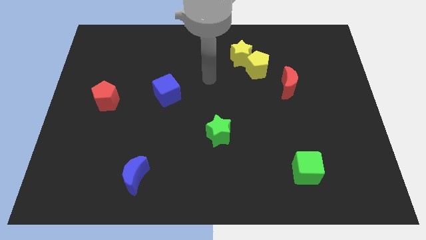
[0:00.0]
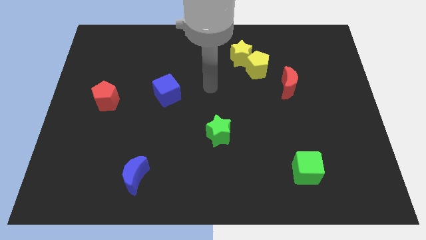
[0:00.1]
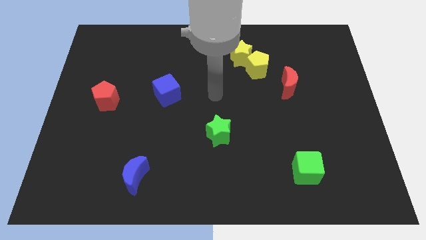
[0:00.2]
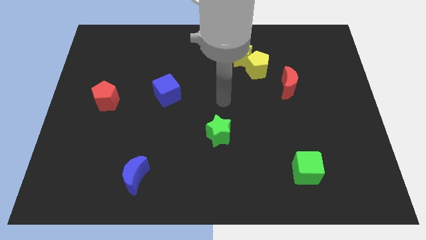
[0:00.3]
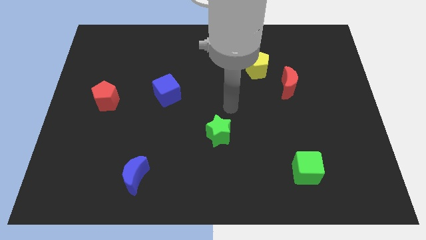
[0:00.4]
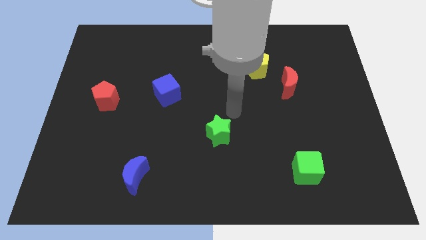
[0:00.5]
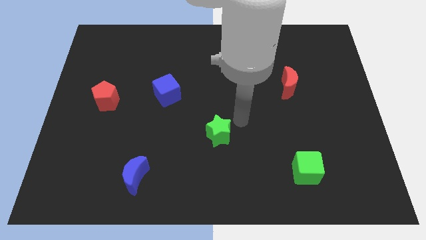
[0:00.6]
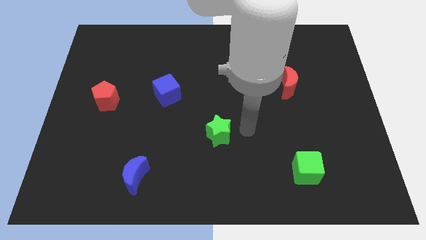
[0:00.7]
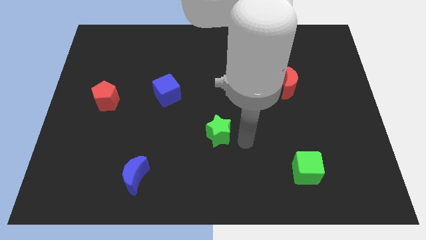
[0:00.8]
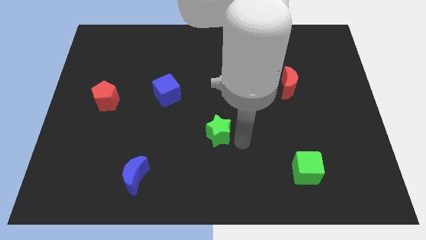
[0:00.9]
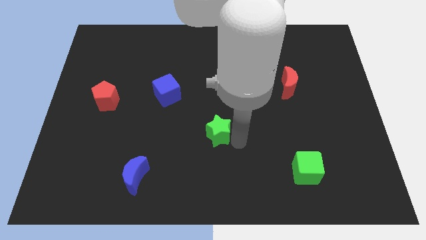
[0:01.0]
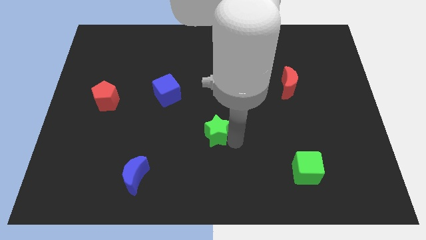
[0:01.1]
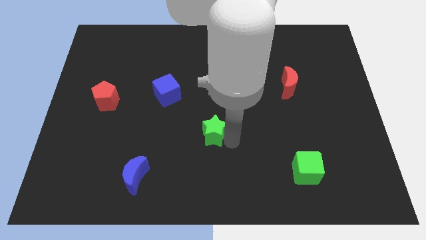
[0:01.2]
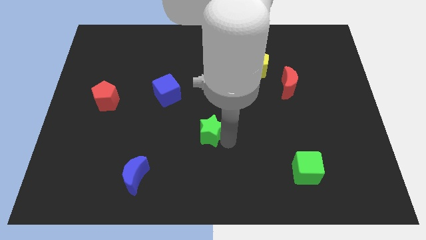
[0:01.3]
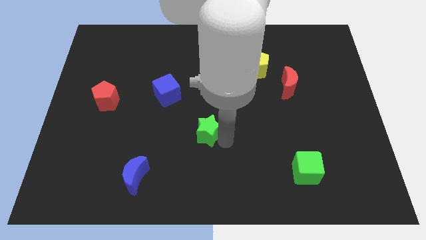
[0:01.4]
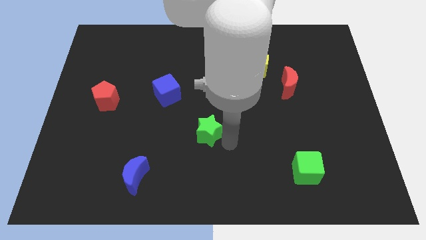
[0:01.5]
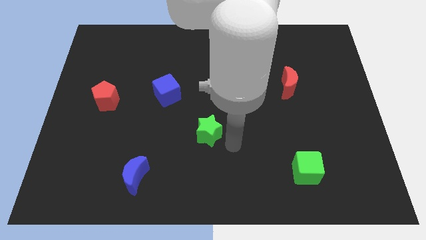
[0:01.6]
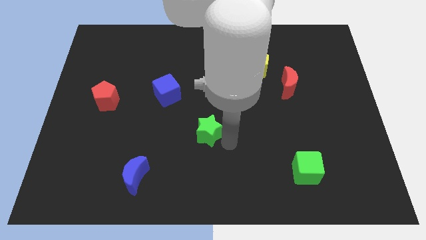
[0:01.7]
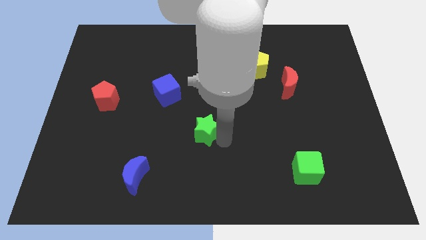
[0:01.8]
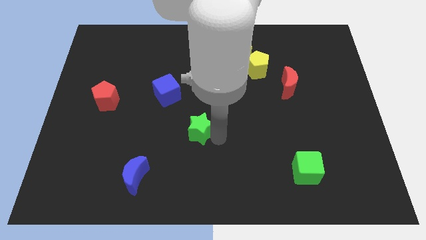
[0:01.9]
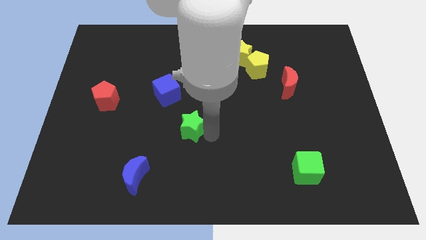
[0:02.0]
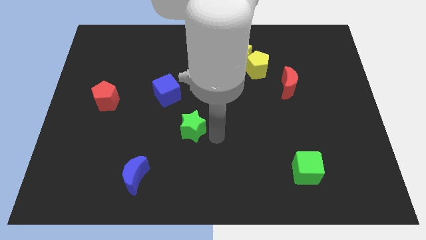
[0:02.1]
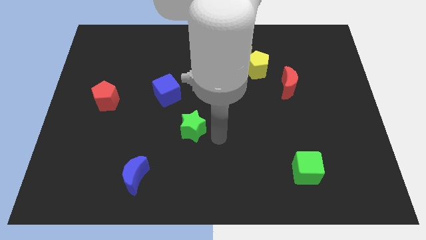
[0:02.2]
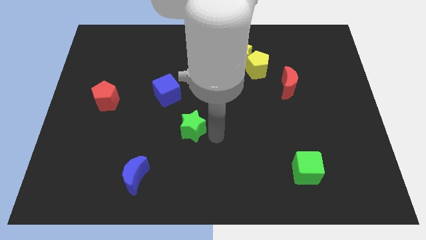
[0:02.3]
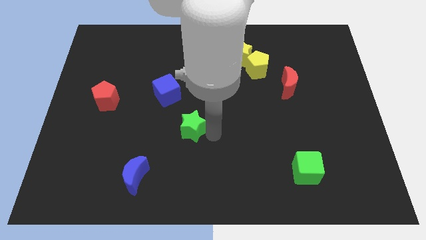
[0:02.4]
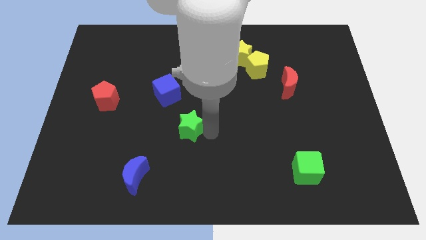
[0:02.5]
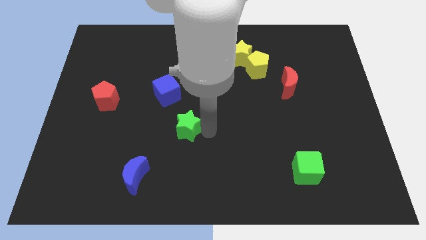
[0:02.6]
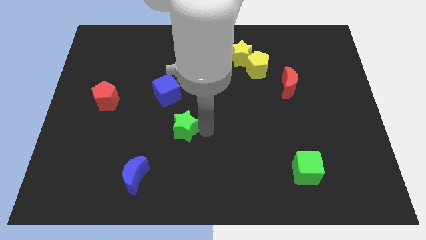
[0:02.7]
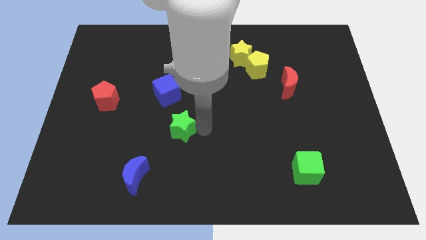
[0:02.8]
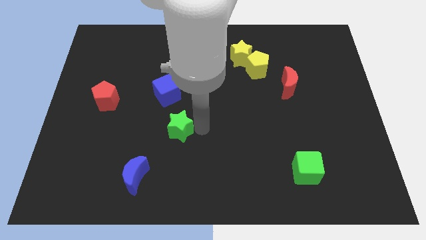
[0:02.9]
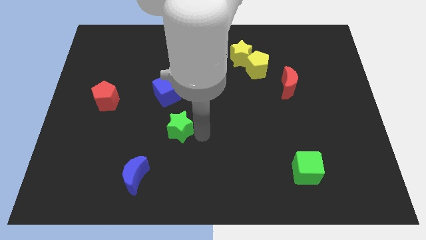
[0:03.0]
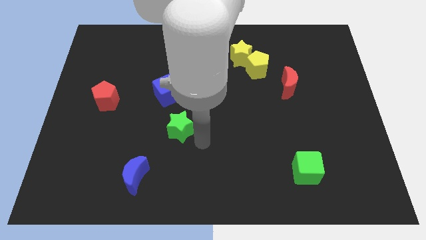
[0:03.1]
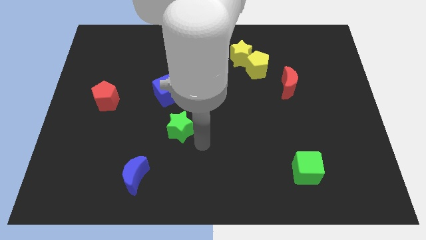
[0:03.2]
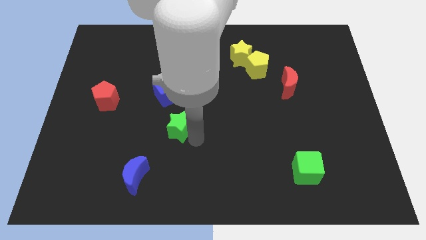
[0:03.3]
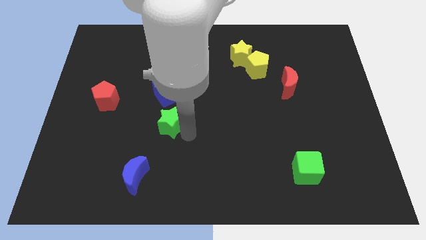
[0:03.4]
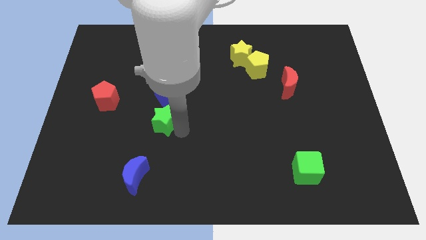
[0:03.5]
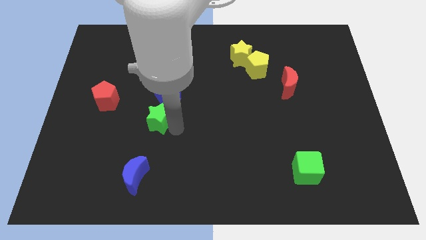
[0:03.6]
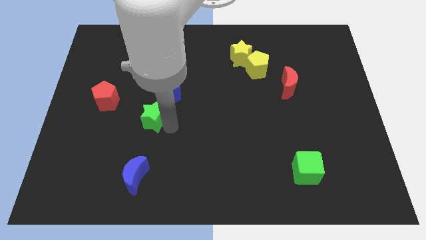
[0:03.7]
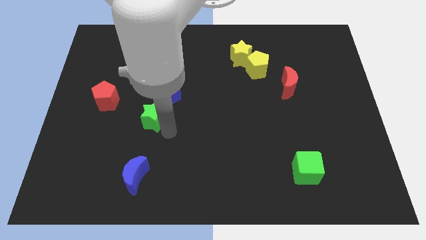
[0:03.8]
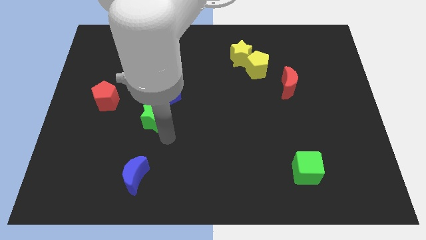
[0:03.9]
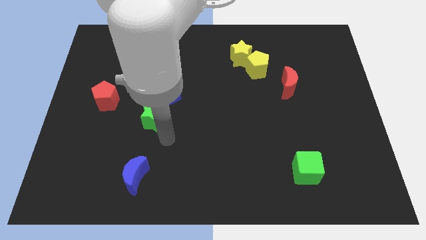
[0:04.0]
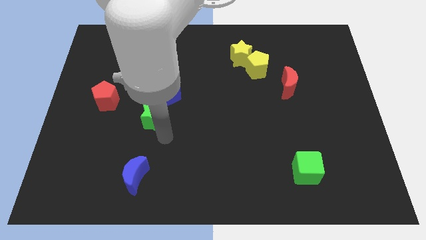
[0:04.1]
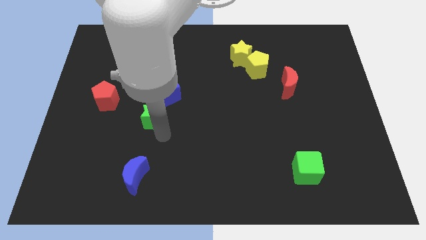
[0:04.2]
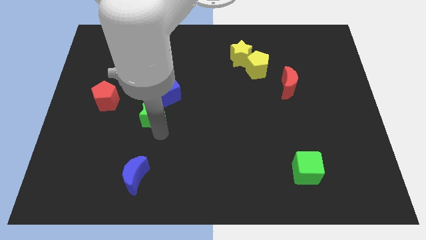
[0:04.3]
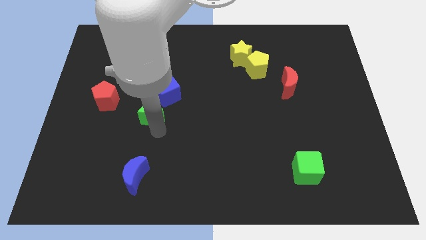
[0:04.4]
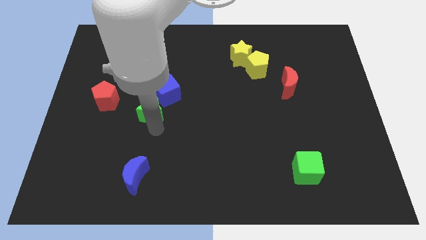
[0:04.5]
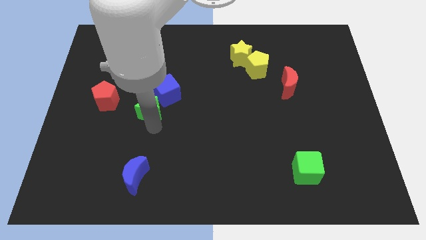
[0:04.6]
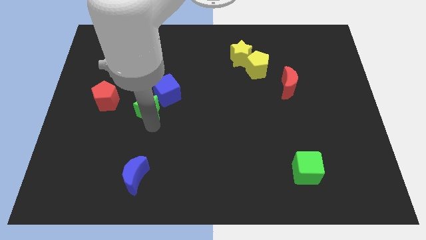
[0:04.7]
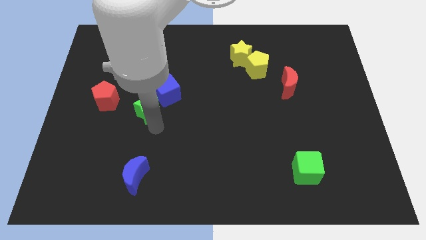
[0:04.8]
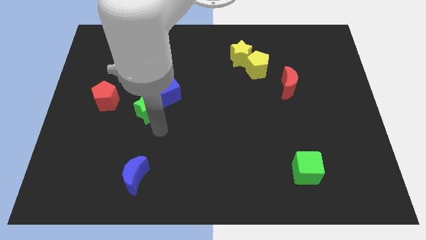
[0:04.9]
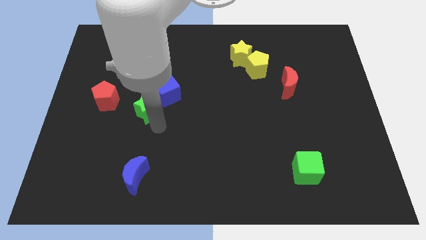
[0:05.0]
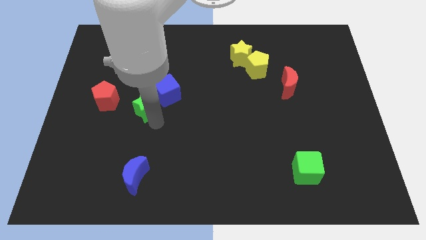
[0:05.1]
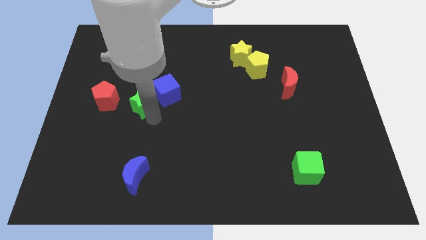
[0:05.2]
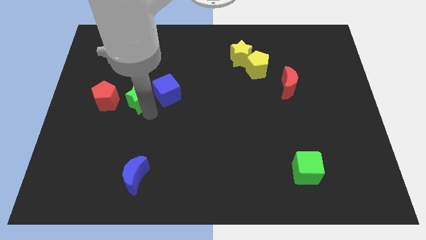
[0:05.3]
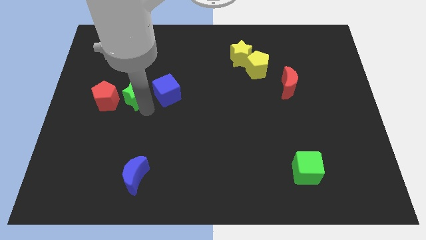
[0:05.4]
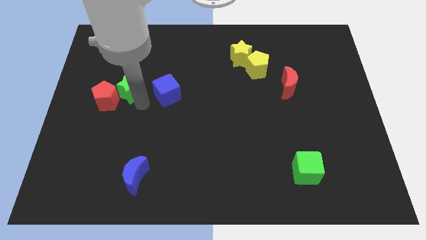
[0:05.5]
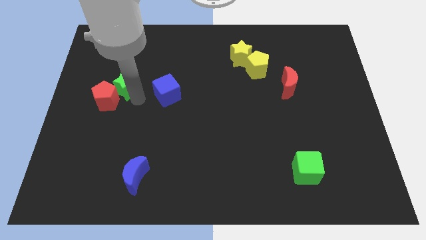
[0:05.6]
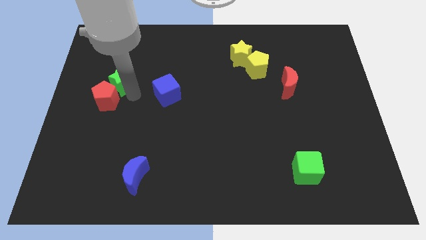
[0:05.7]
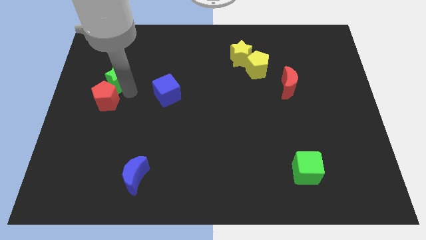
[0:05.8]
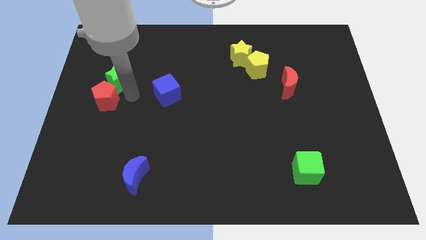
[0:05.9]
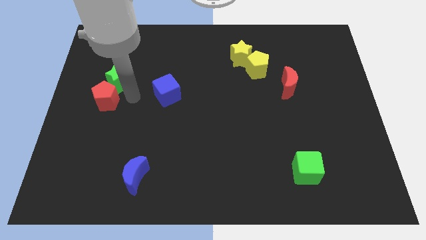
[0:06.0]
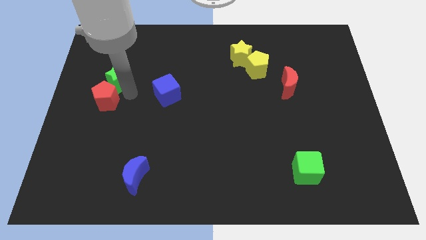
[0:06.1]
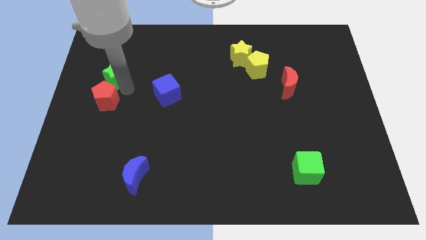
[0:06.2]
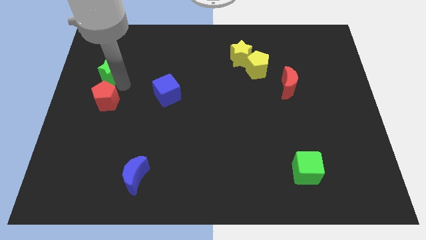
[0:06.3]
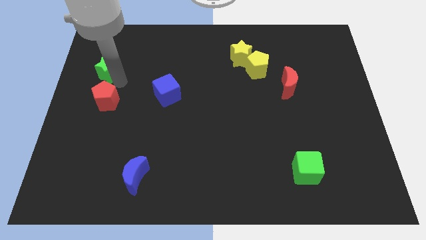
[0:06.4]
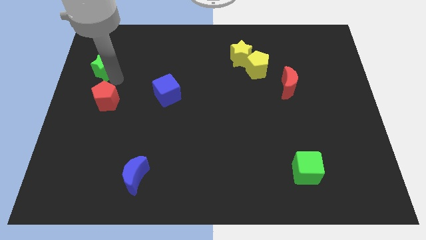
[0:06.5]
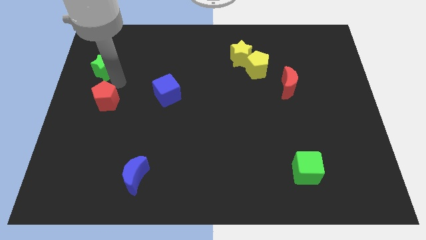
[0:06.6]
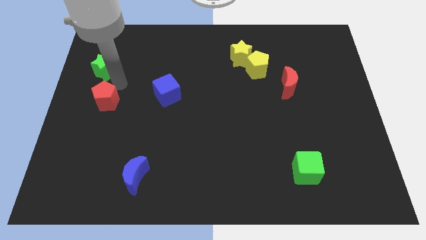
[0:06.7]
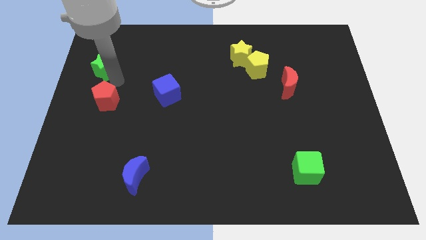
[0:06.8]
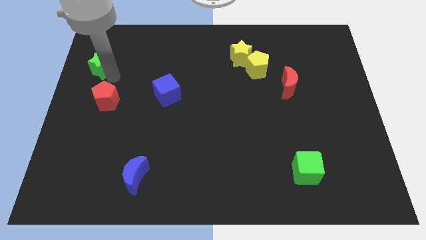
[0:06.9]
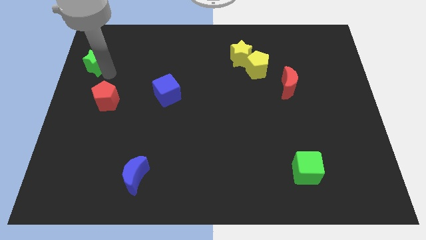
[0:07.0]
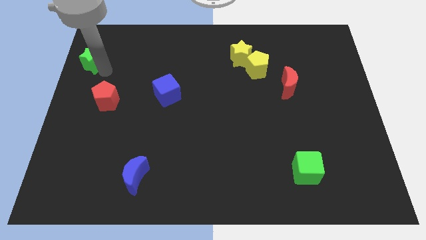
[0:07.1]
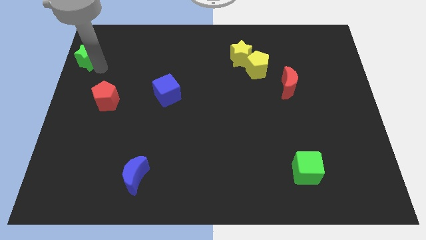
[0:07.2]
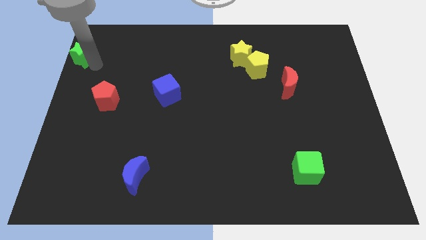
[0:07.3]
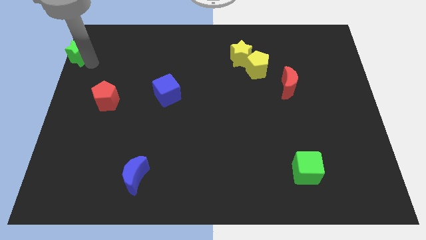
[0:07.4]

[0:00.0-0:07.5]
slide the green star to the upper left corner
